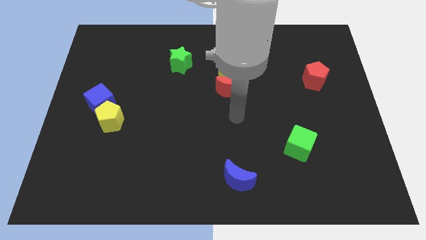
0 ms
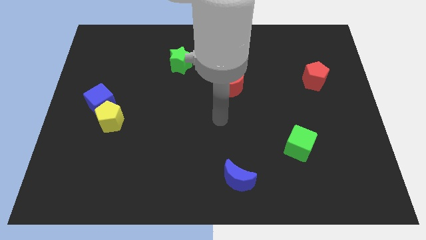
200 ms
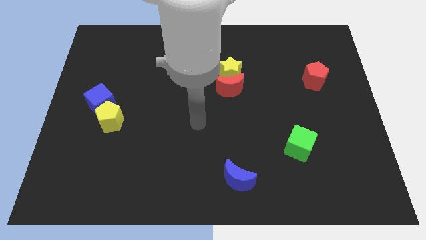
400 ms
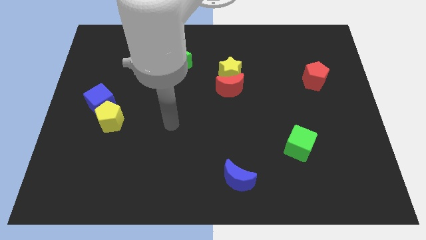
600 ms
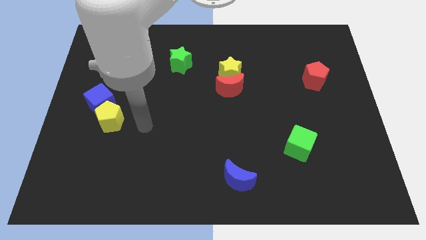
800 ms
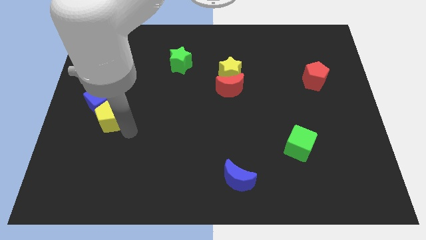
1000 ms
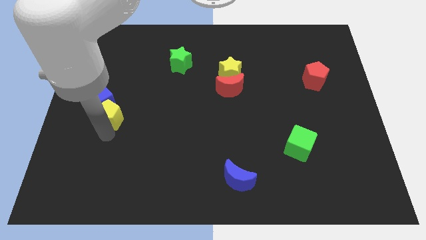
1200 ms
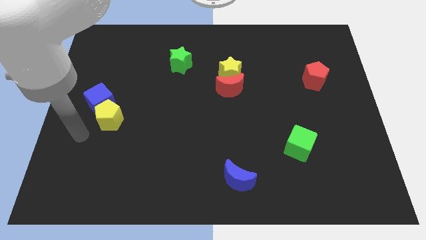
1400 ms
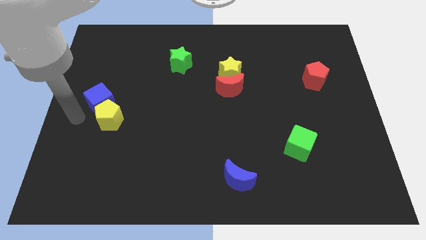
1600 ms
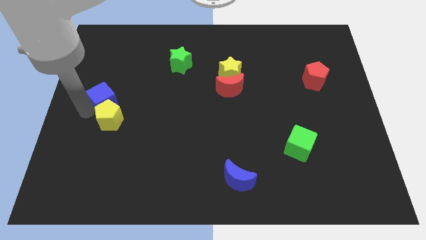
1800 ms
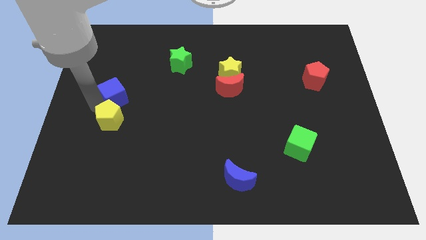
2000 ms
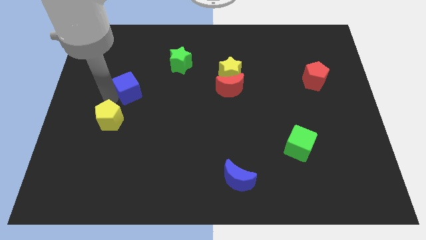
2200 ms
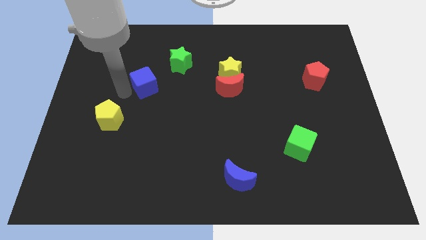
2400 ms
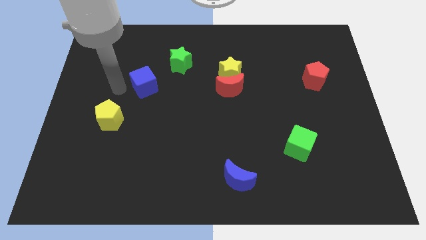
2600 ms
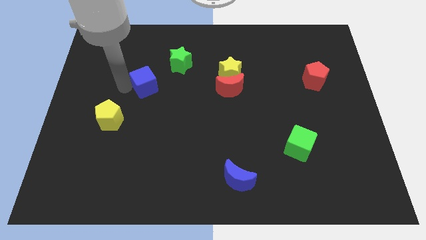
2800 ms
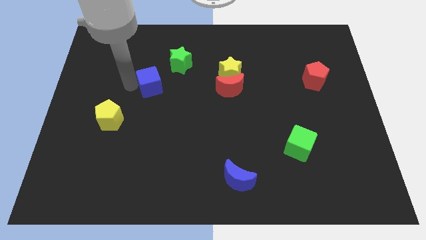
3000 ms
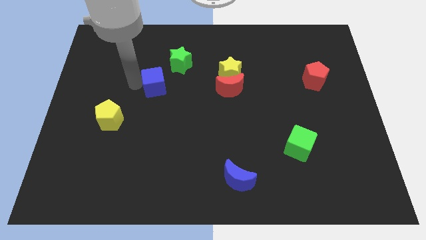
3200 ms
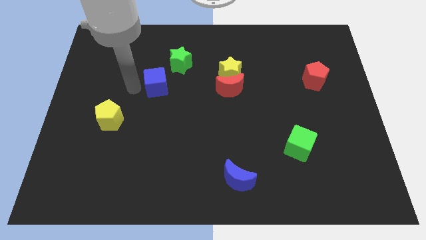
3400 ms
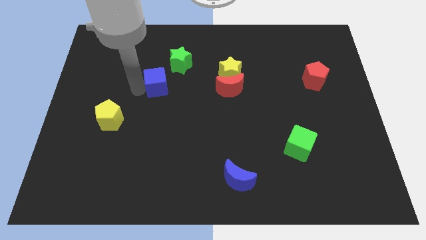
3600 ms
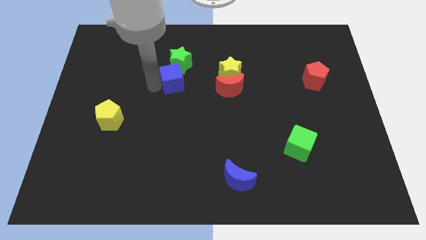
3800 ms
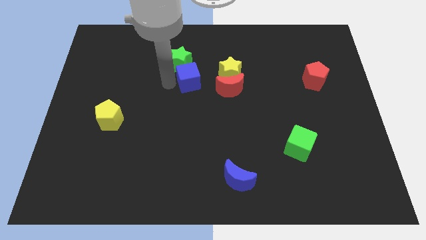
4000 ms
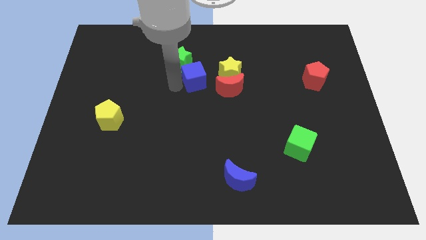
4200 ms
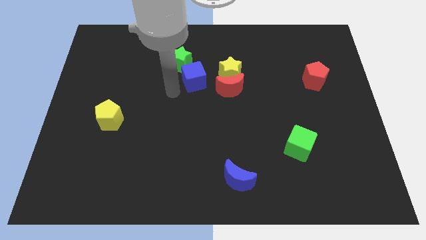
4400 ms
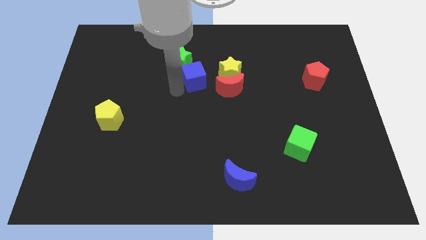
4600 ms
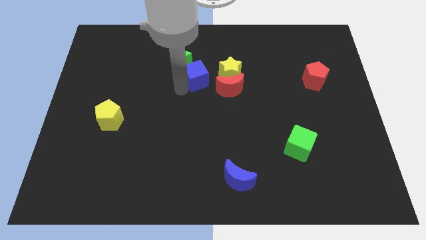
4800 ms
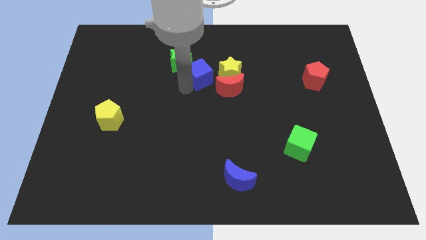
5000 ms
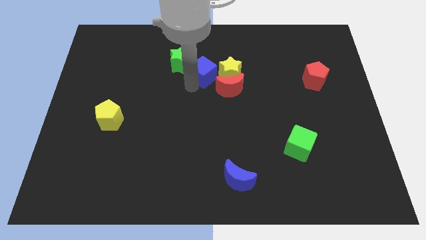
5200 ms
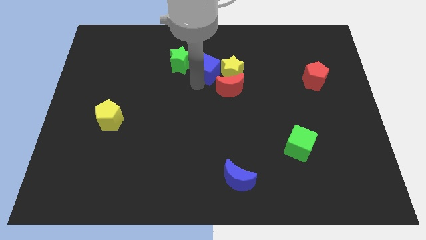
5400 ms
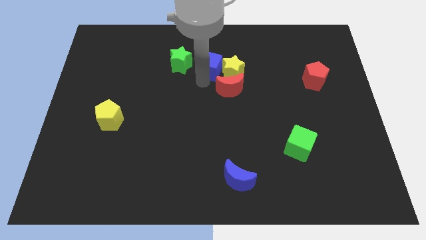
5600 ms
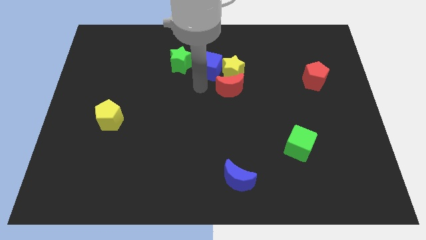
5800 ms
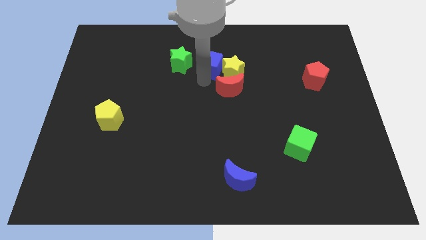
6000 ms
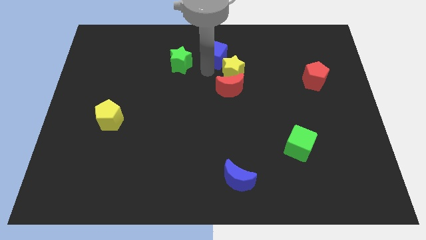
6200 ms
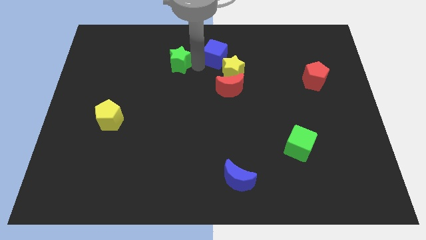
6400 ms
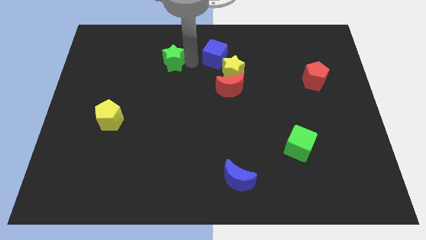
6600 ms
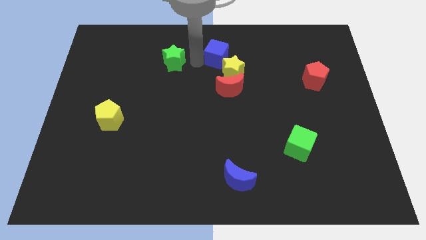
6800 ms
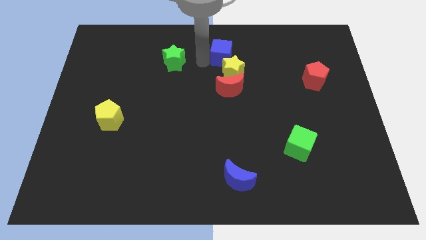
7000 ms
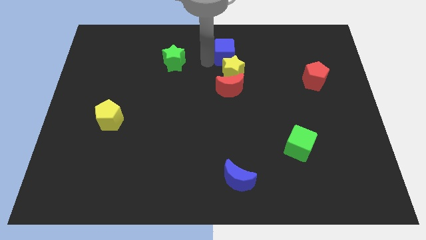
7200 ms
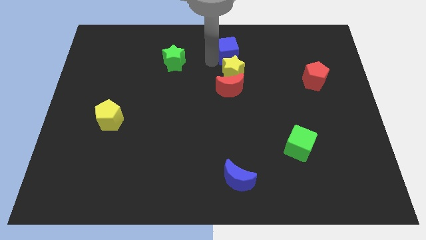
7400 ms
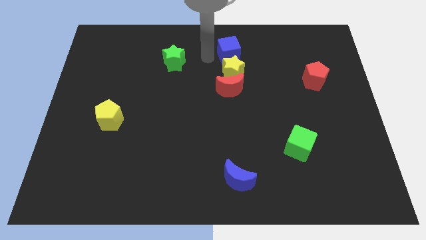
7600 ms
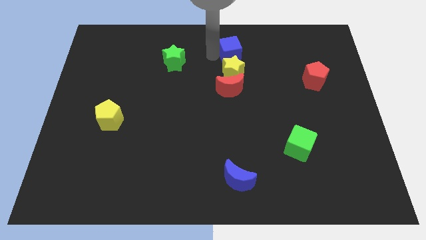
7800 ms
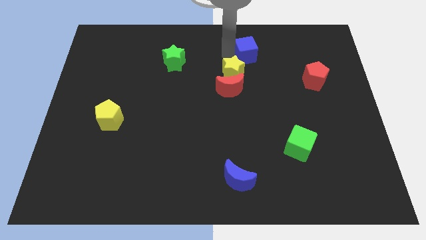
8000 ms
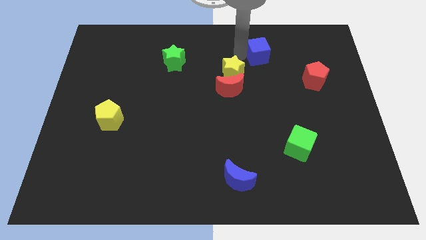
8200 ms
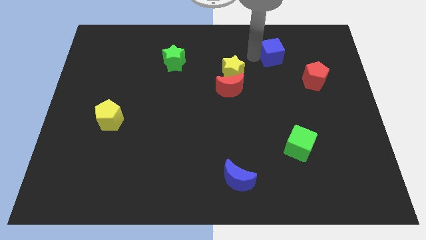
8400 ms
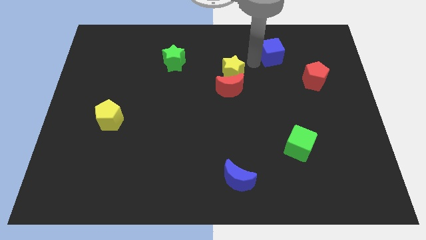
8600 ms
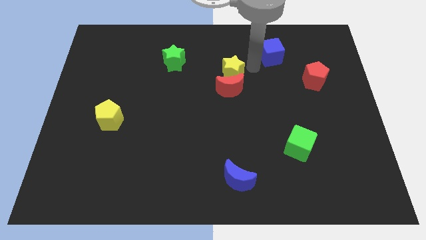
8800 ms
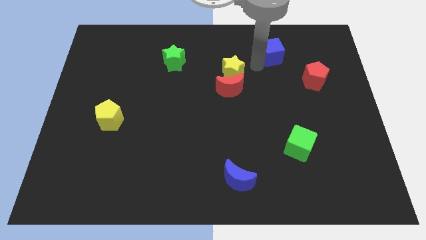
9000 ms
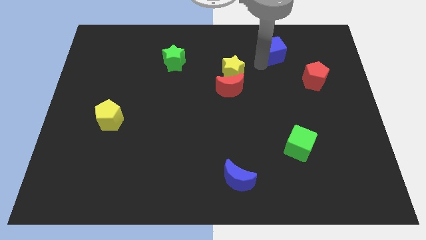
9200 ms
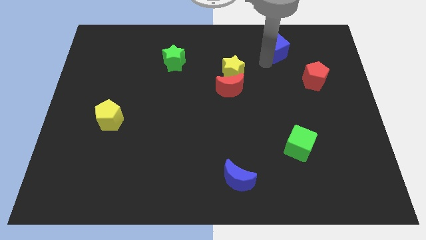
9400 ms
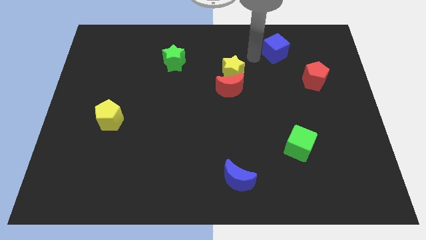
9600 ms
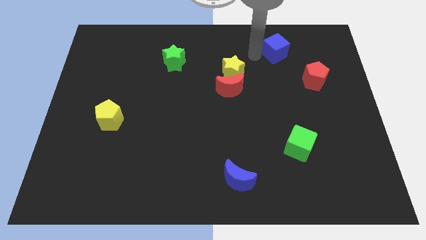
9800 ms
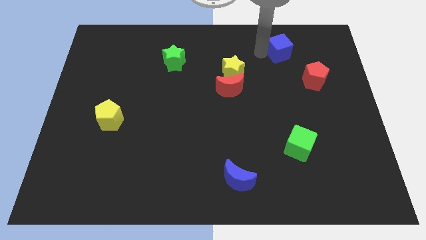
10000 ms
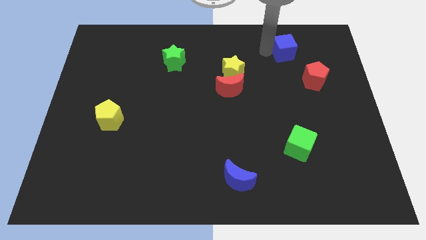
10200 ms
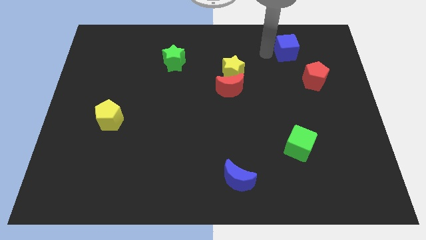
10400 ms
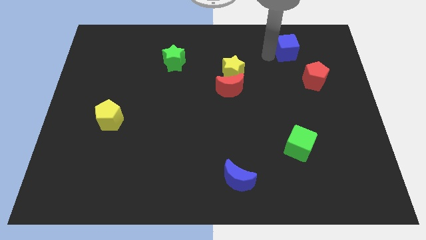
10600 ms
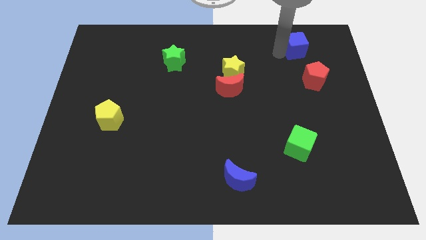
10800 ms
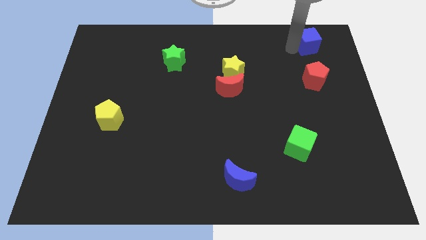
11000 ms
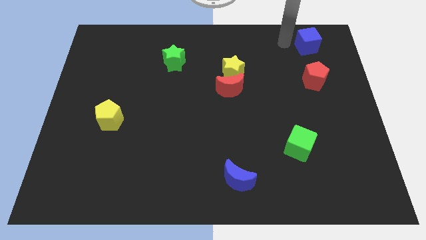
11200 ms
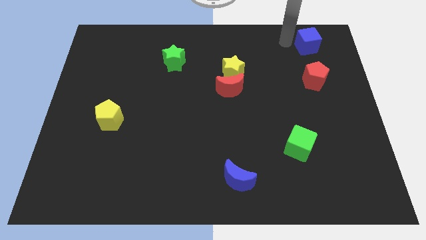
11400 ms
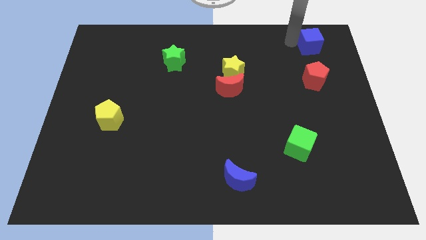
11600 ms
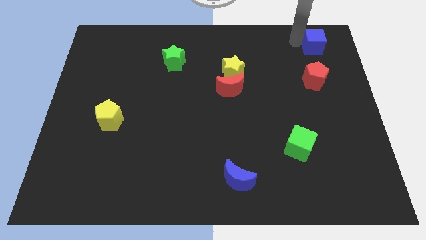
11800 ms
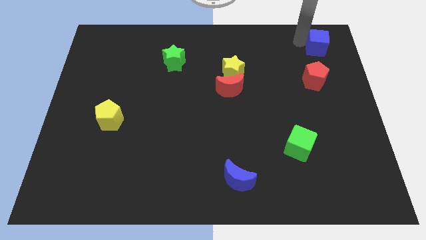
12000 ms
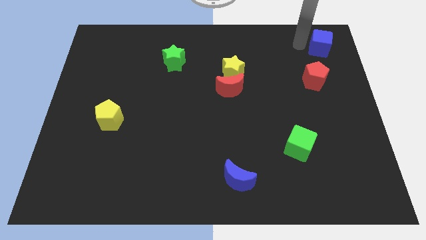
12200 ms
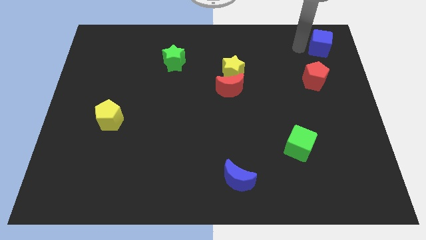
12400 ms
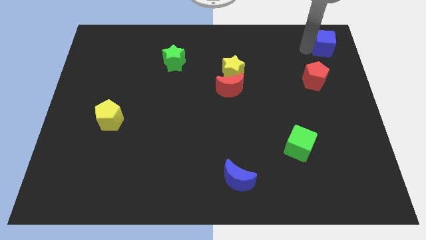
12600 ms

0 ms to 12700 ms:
put the blue cube to the top right
